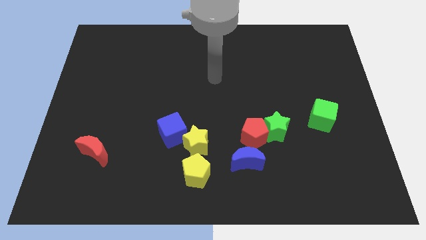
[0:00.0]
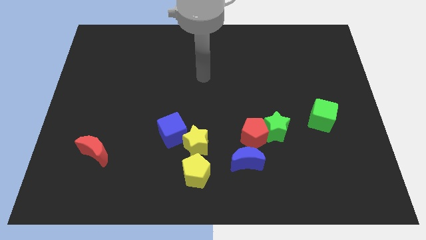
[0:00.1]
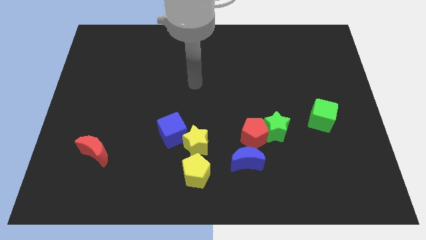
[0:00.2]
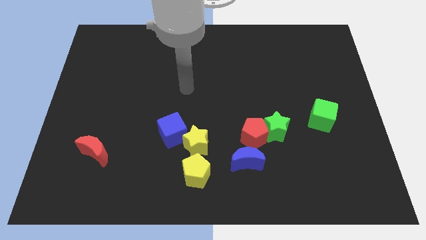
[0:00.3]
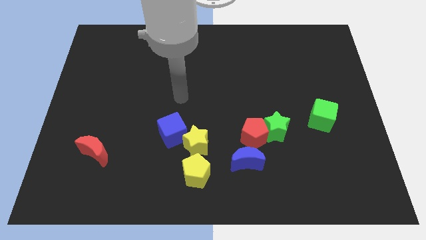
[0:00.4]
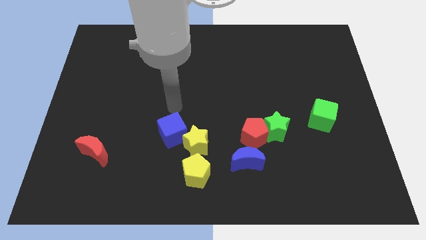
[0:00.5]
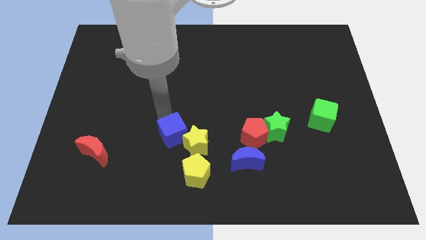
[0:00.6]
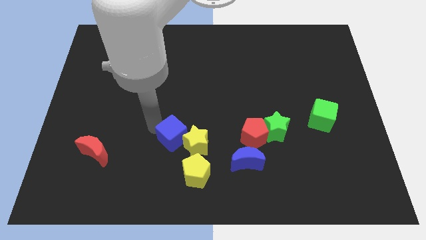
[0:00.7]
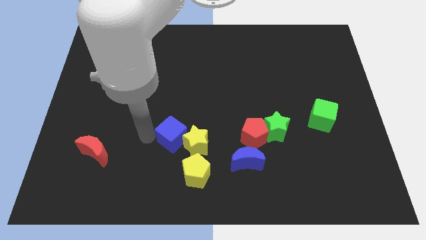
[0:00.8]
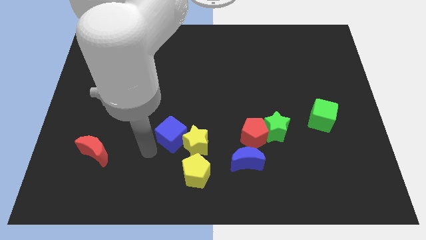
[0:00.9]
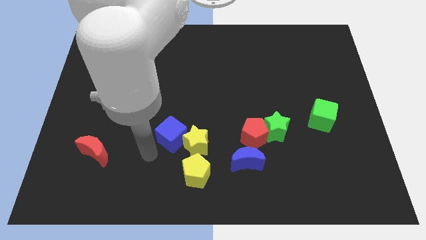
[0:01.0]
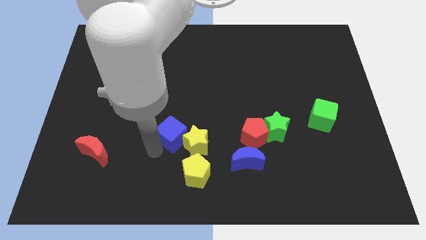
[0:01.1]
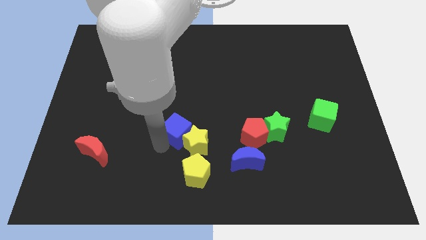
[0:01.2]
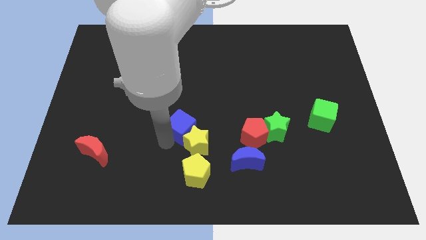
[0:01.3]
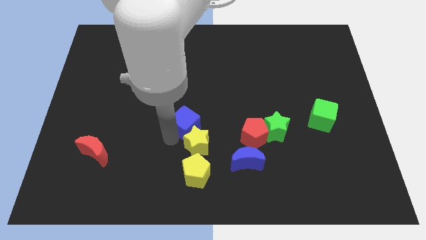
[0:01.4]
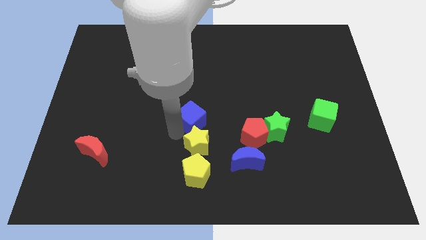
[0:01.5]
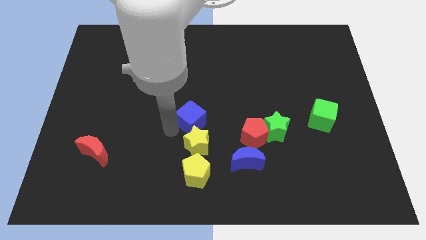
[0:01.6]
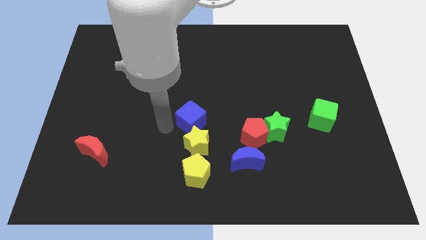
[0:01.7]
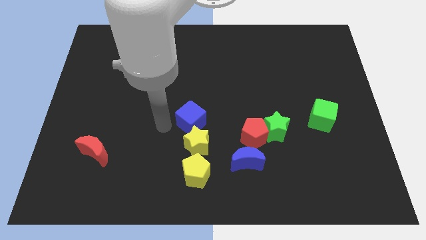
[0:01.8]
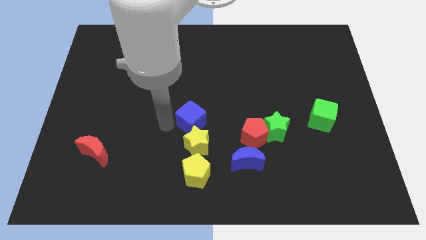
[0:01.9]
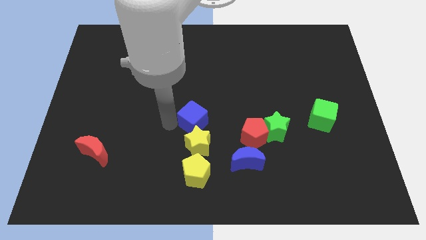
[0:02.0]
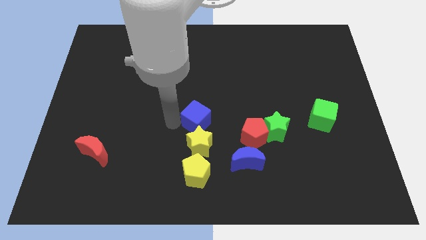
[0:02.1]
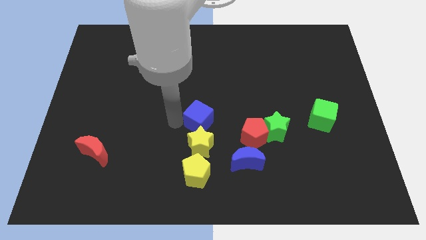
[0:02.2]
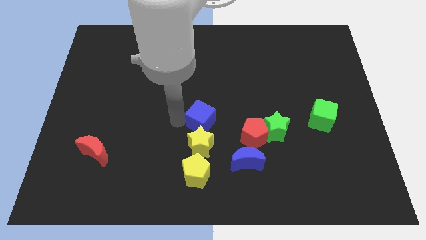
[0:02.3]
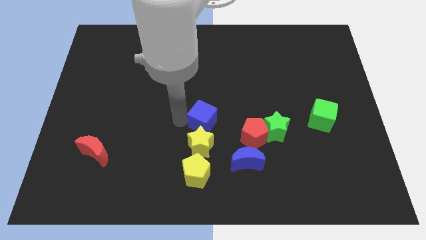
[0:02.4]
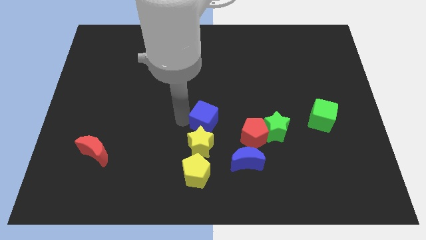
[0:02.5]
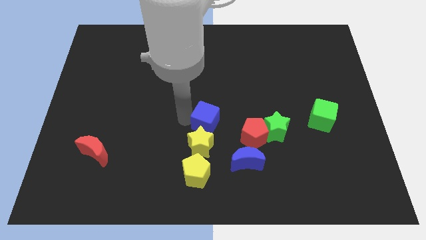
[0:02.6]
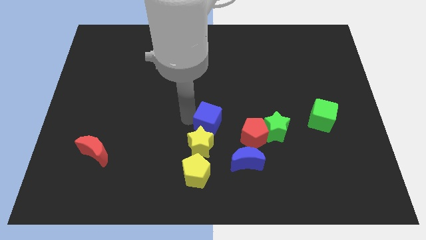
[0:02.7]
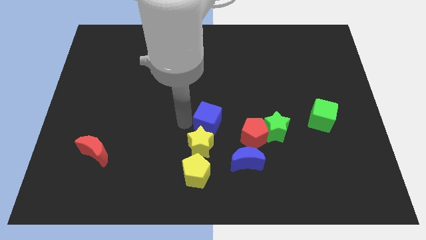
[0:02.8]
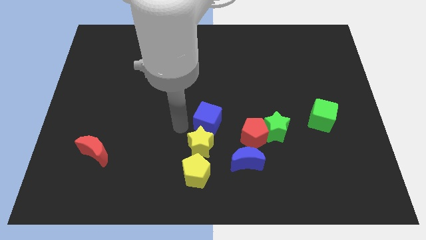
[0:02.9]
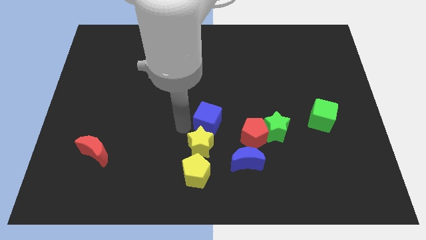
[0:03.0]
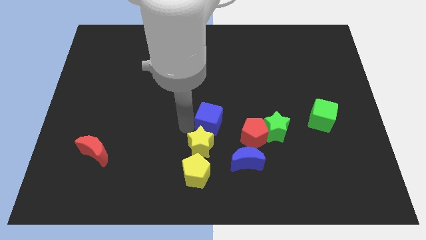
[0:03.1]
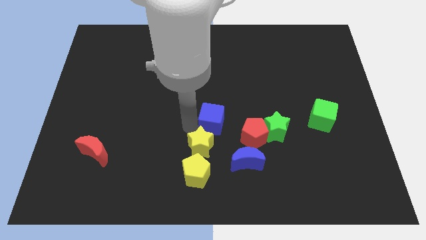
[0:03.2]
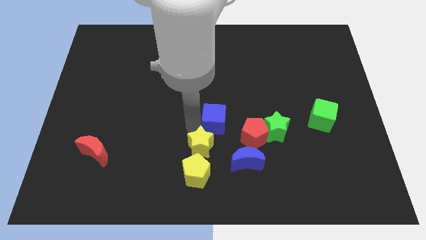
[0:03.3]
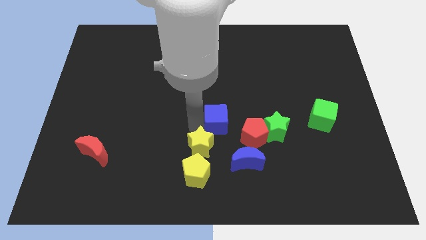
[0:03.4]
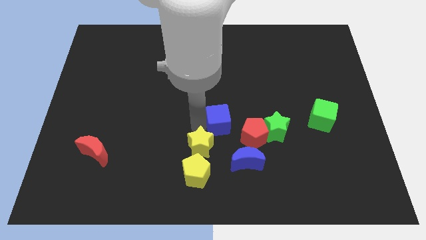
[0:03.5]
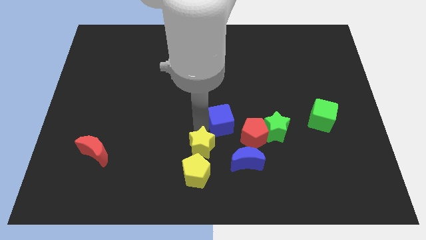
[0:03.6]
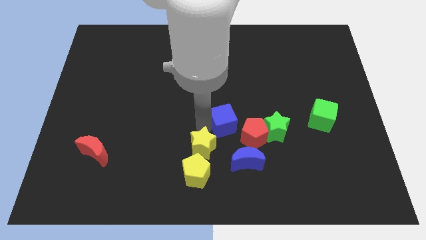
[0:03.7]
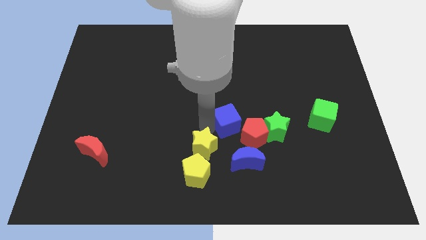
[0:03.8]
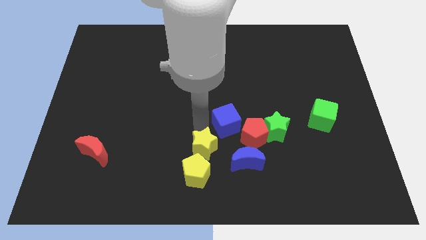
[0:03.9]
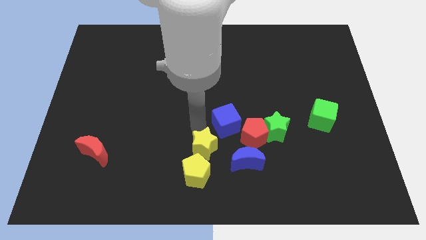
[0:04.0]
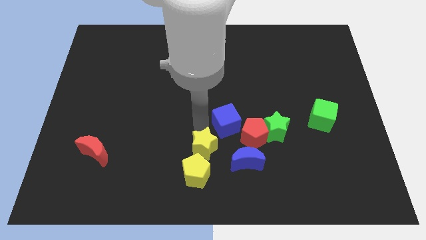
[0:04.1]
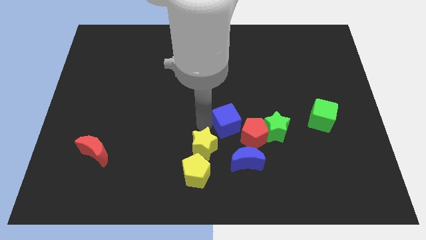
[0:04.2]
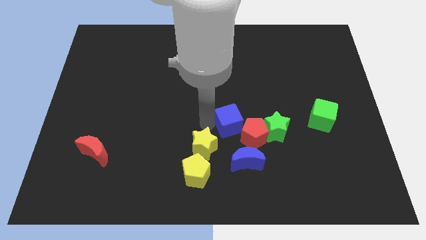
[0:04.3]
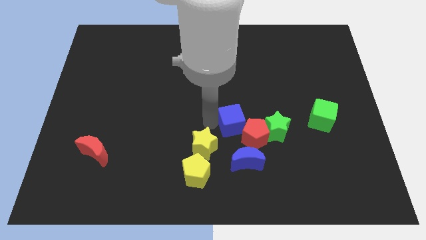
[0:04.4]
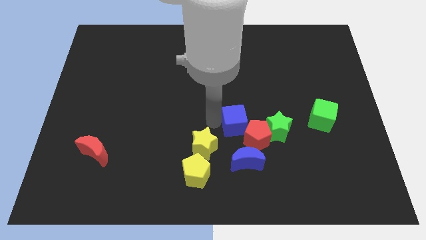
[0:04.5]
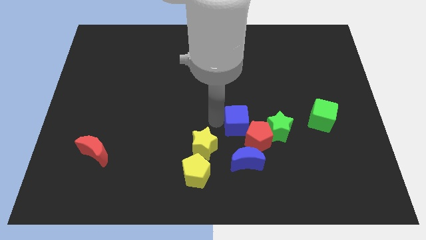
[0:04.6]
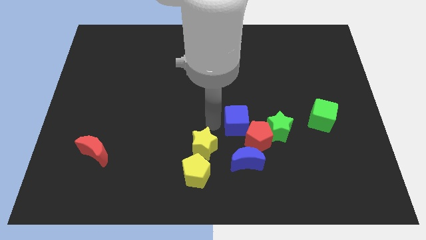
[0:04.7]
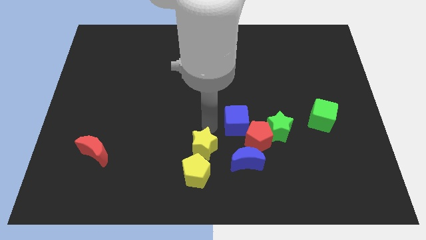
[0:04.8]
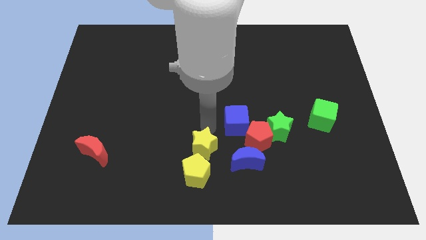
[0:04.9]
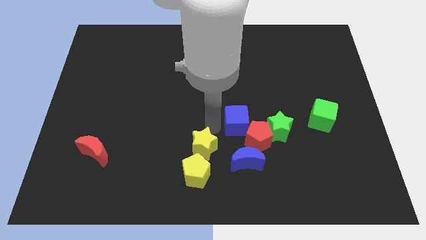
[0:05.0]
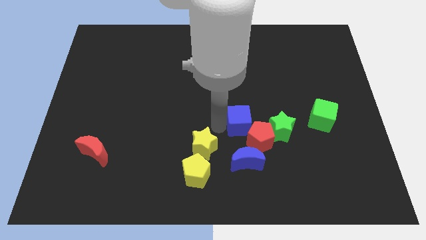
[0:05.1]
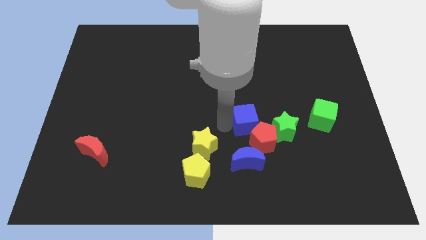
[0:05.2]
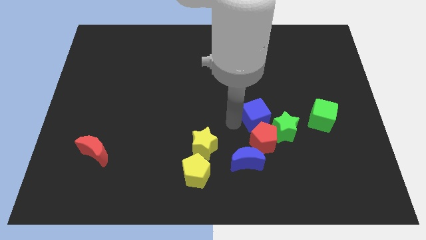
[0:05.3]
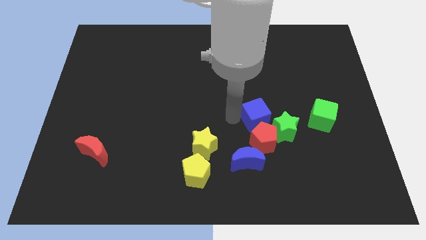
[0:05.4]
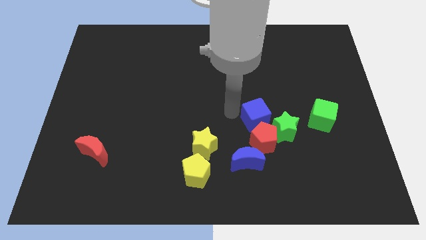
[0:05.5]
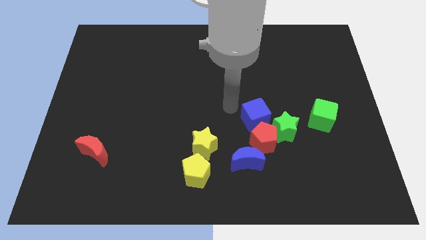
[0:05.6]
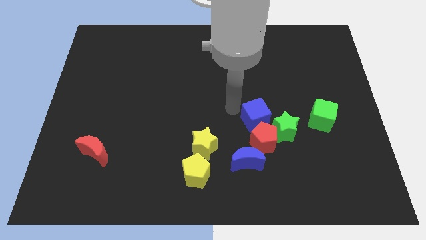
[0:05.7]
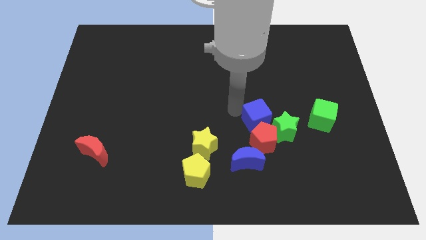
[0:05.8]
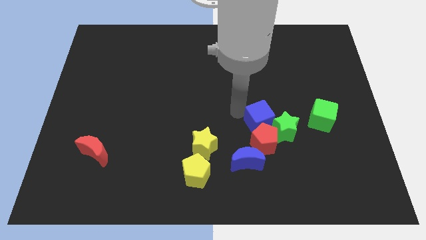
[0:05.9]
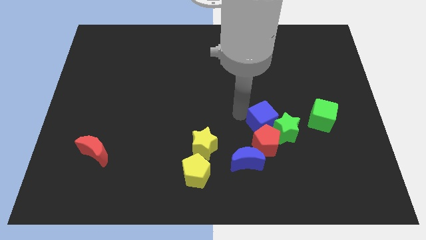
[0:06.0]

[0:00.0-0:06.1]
put the blue cube towards the green star

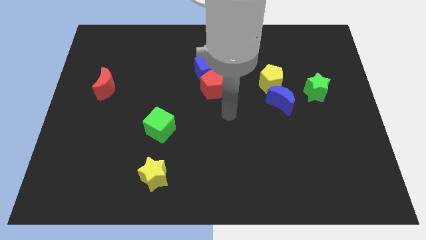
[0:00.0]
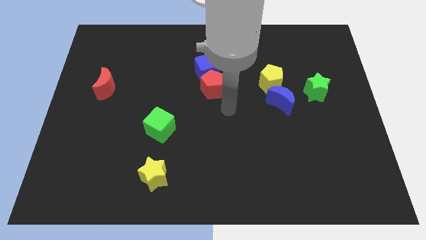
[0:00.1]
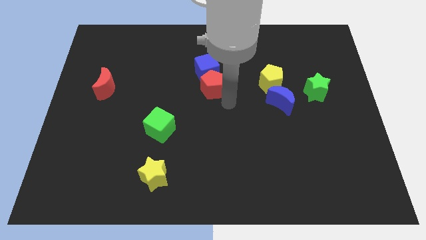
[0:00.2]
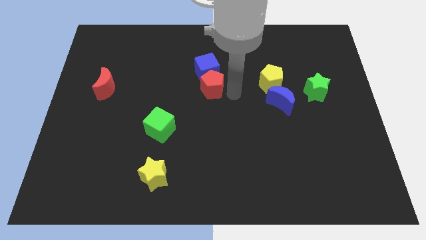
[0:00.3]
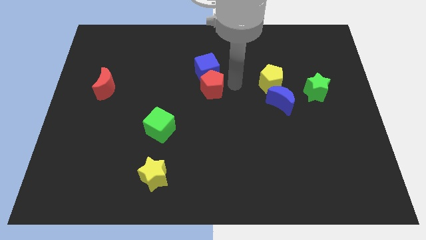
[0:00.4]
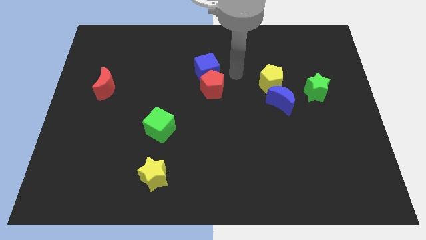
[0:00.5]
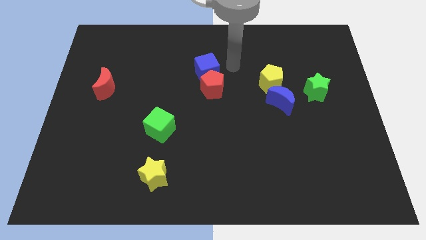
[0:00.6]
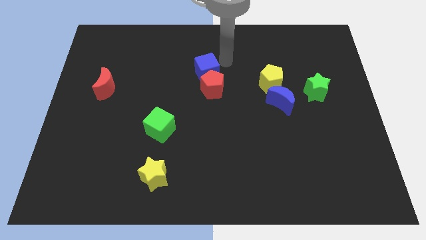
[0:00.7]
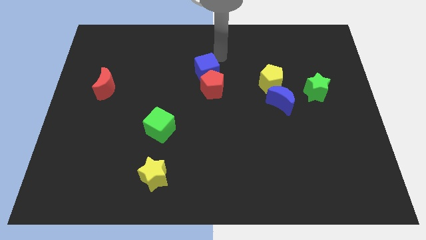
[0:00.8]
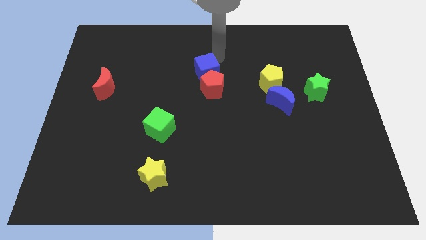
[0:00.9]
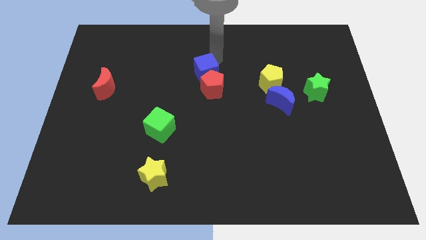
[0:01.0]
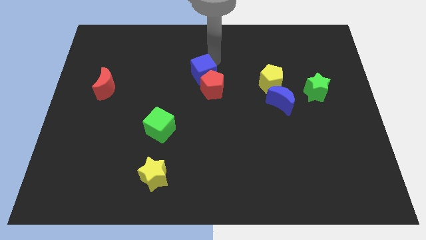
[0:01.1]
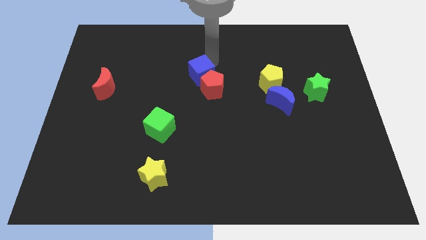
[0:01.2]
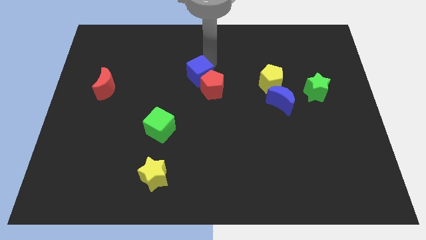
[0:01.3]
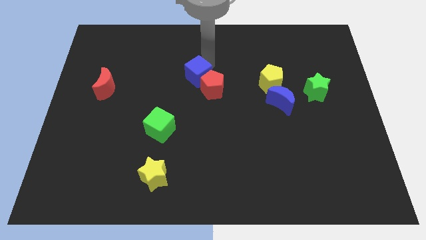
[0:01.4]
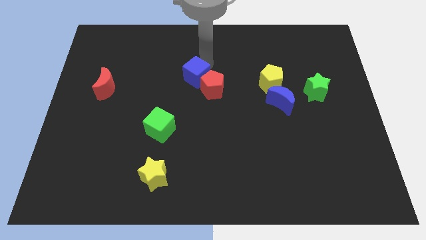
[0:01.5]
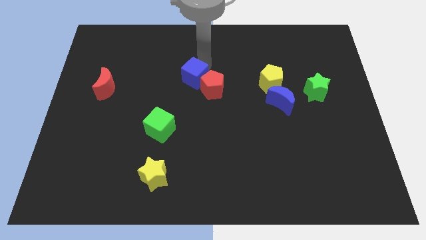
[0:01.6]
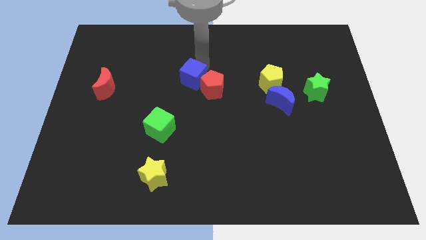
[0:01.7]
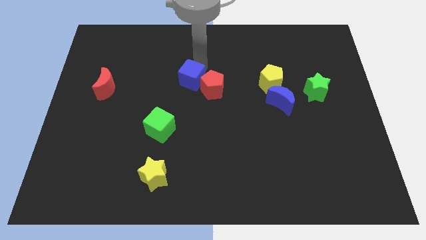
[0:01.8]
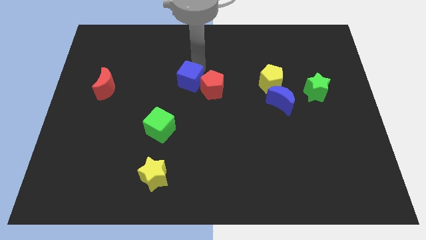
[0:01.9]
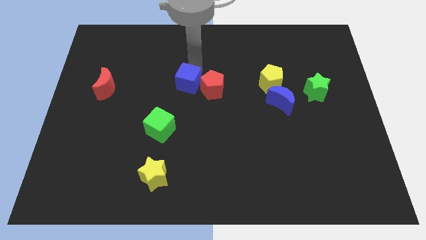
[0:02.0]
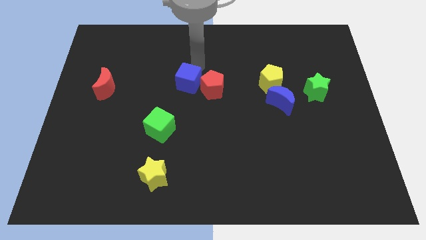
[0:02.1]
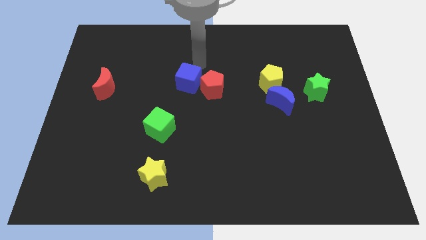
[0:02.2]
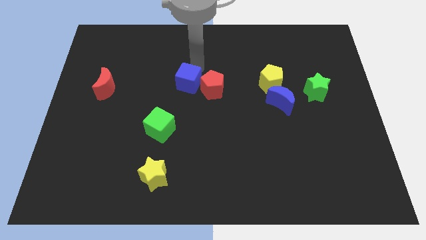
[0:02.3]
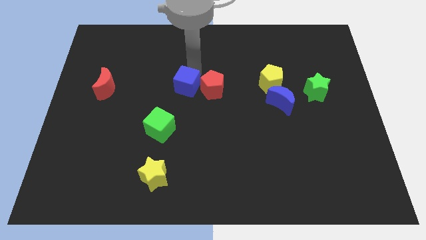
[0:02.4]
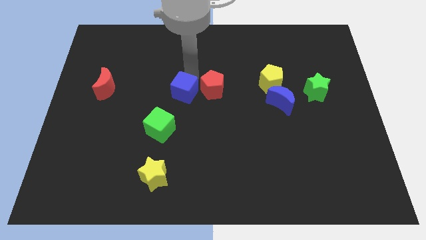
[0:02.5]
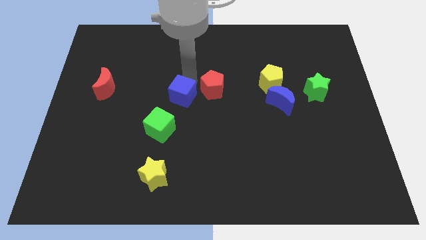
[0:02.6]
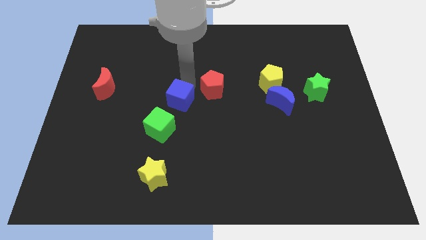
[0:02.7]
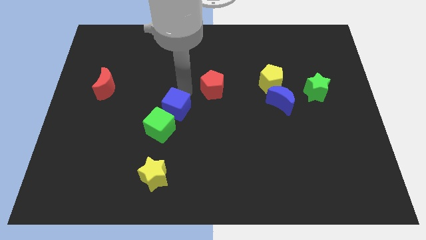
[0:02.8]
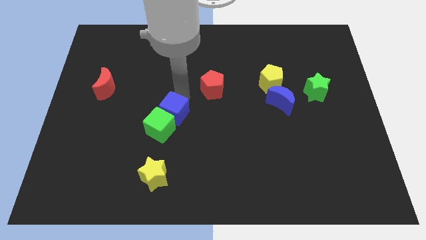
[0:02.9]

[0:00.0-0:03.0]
move the blue cube close to the green cube
